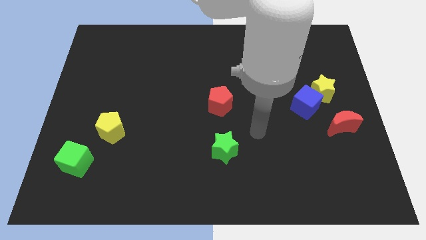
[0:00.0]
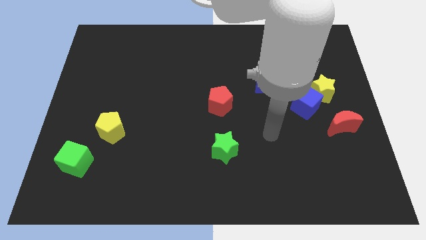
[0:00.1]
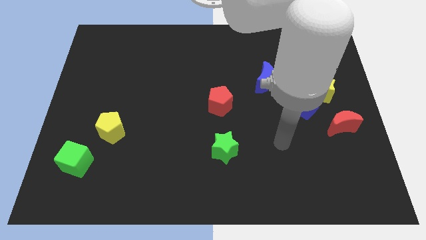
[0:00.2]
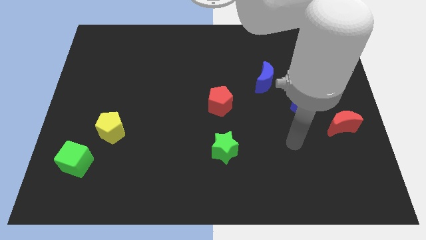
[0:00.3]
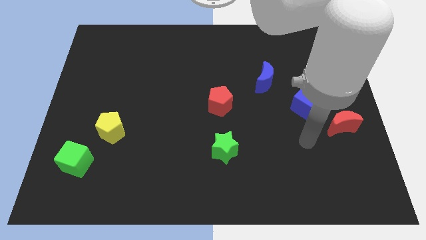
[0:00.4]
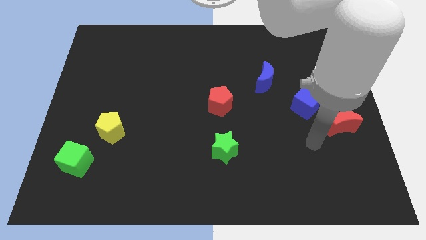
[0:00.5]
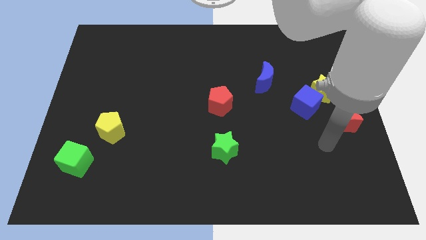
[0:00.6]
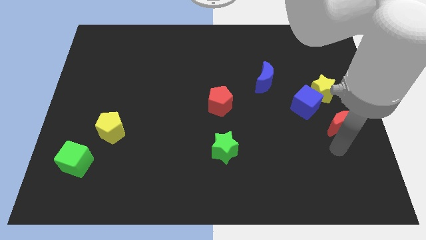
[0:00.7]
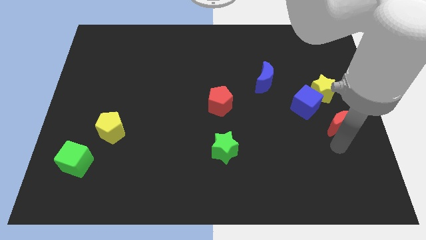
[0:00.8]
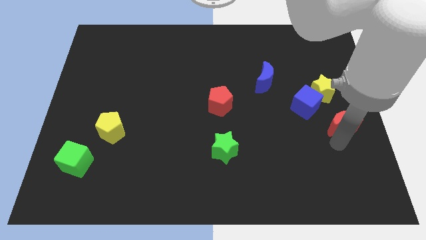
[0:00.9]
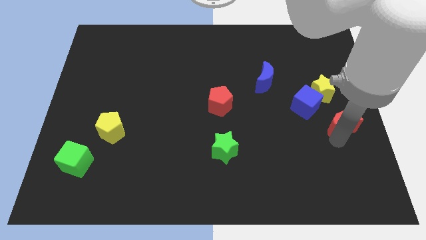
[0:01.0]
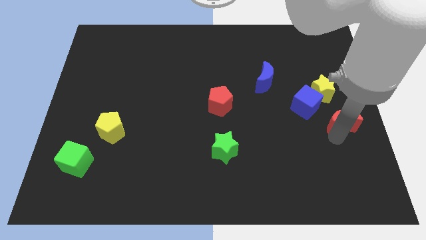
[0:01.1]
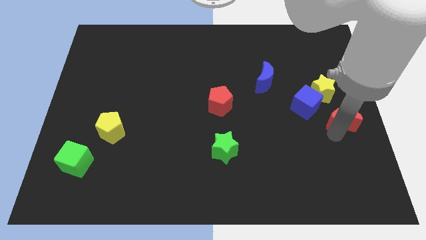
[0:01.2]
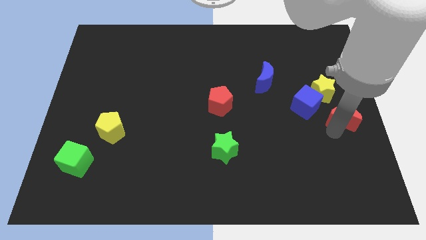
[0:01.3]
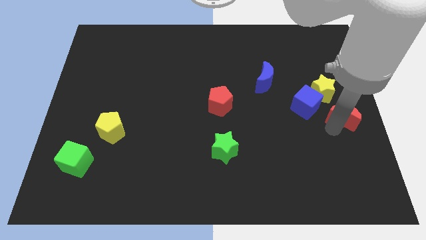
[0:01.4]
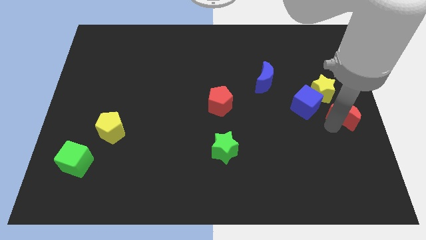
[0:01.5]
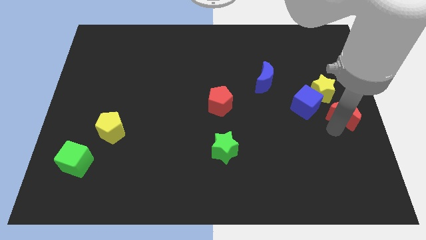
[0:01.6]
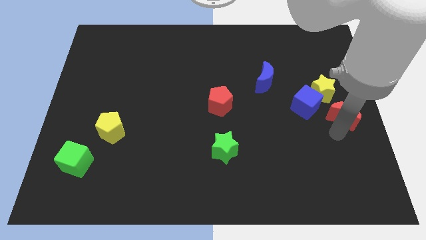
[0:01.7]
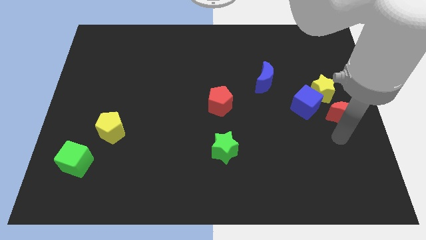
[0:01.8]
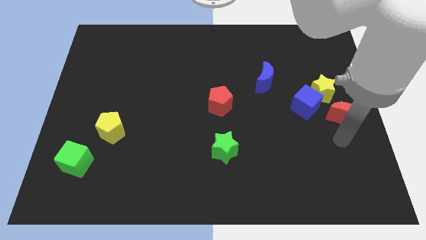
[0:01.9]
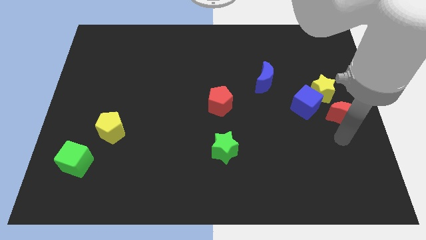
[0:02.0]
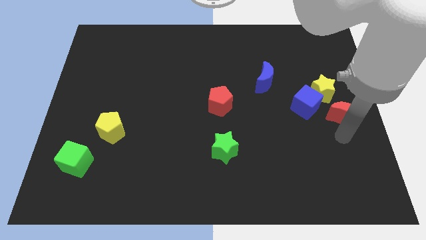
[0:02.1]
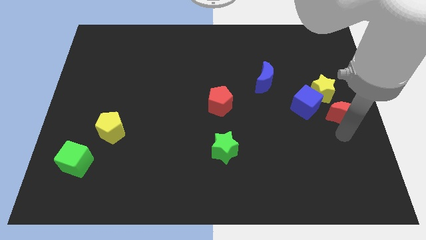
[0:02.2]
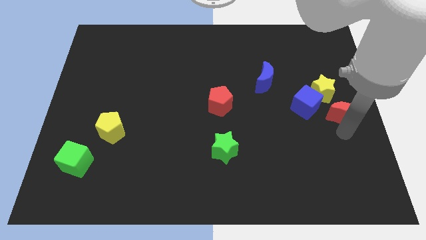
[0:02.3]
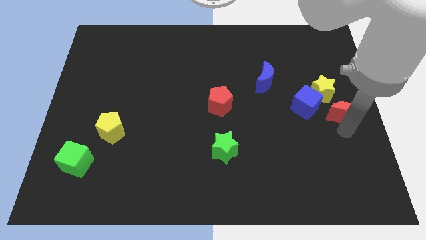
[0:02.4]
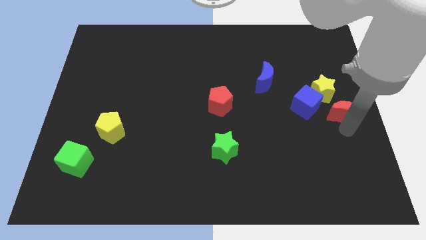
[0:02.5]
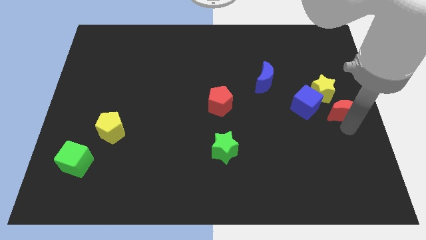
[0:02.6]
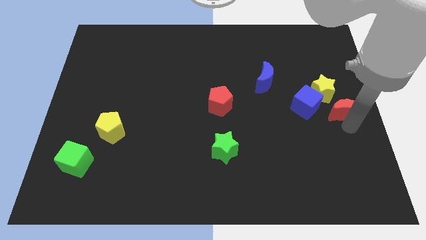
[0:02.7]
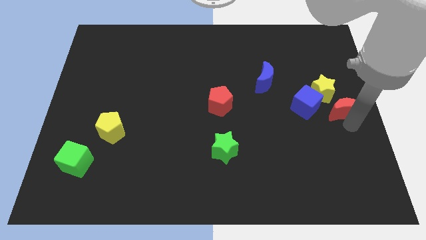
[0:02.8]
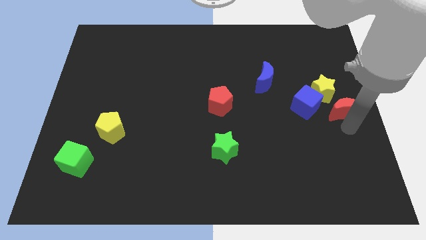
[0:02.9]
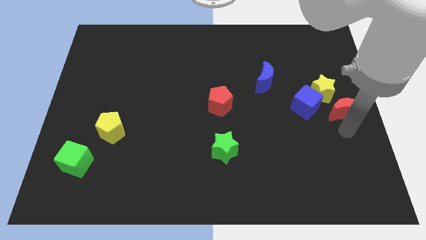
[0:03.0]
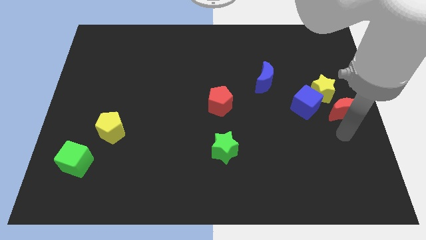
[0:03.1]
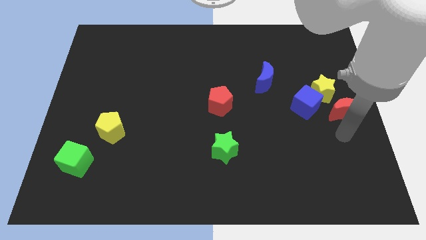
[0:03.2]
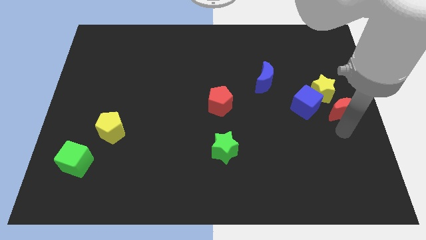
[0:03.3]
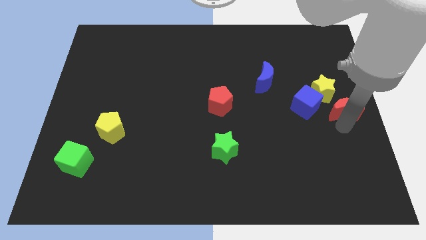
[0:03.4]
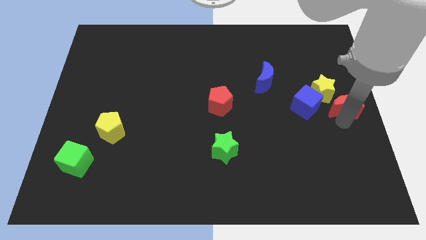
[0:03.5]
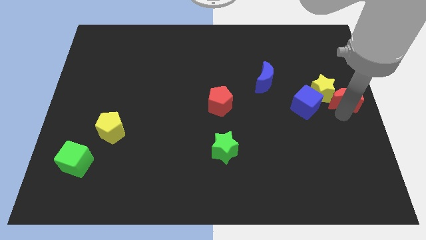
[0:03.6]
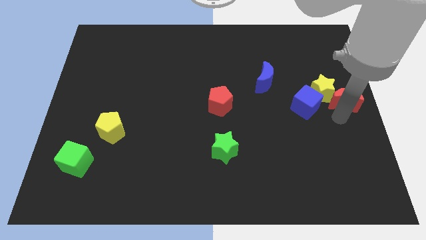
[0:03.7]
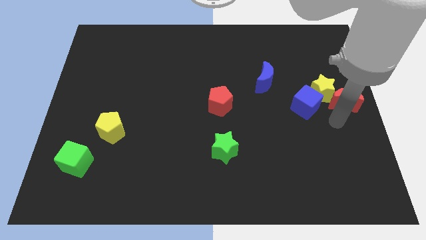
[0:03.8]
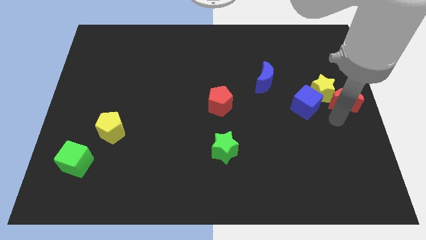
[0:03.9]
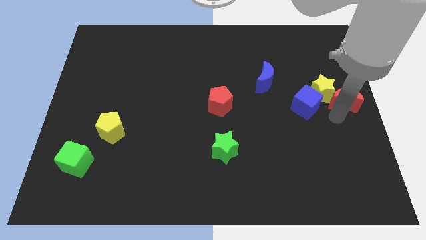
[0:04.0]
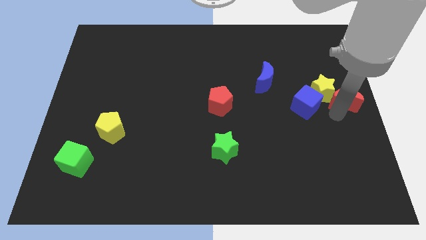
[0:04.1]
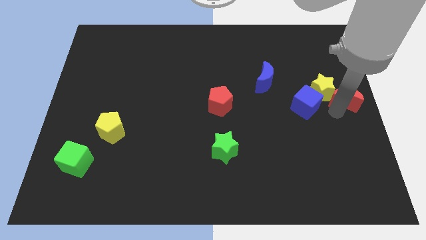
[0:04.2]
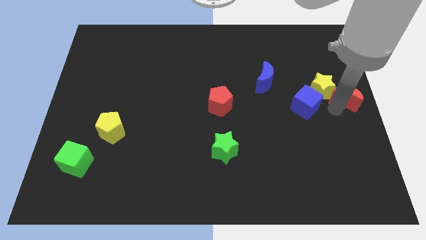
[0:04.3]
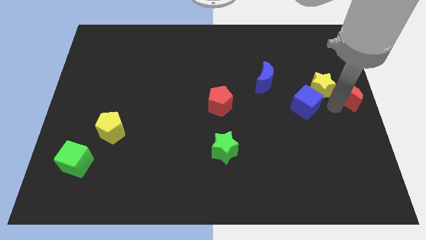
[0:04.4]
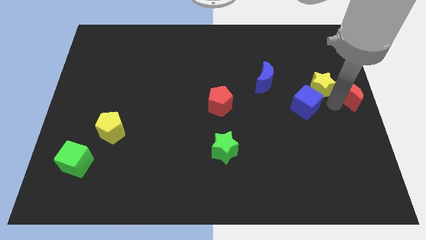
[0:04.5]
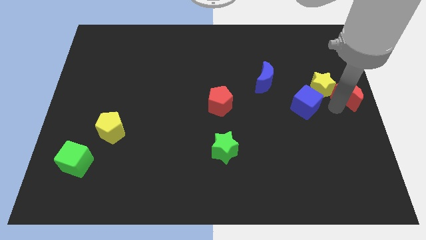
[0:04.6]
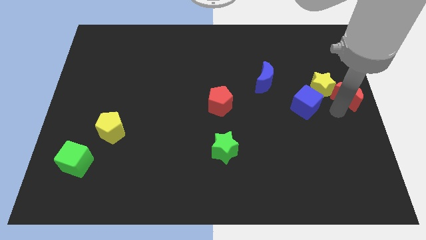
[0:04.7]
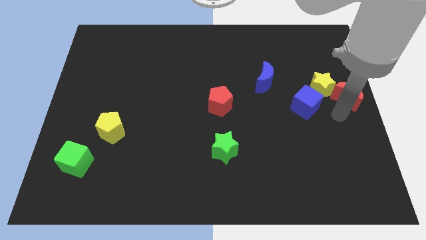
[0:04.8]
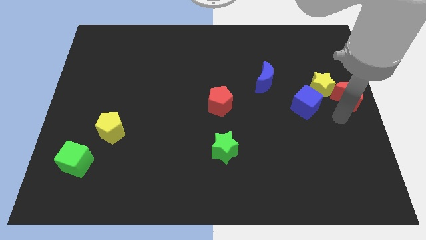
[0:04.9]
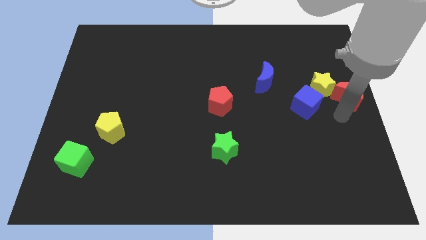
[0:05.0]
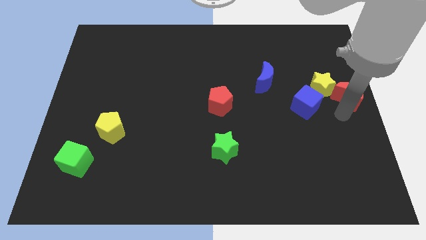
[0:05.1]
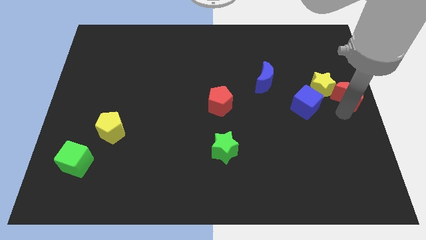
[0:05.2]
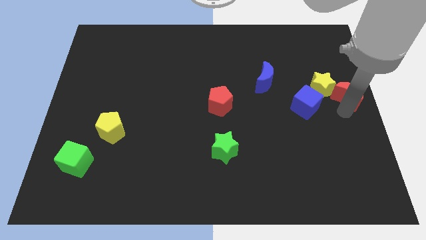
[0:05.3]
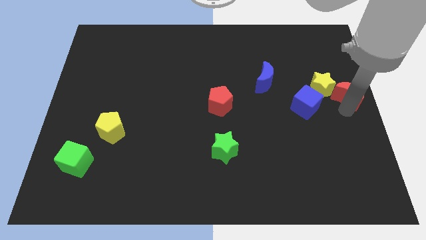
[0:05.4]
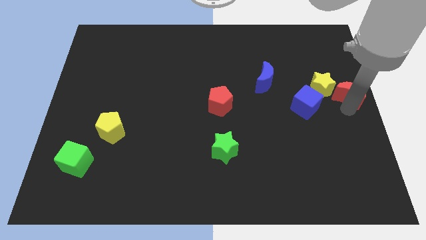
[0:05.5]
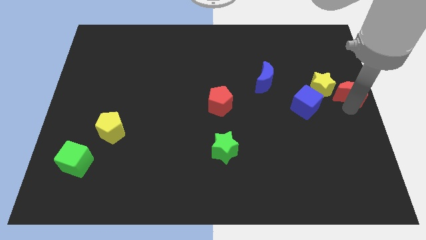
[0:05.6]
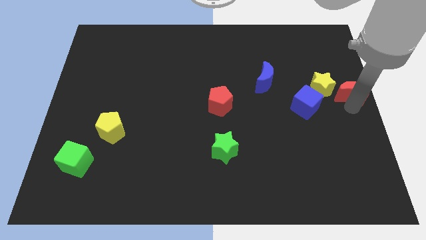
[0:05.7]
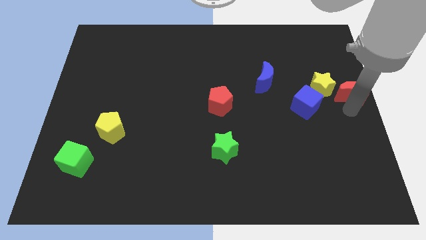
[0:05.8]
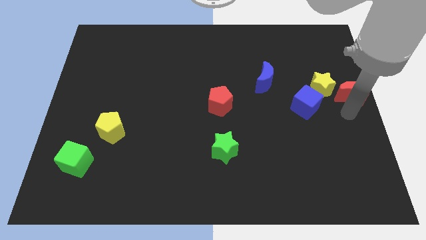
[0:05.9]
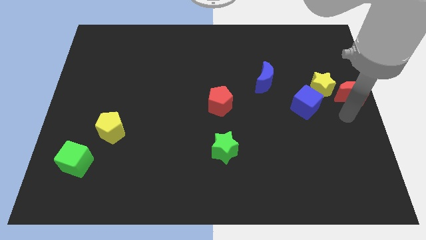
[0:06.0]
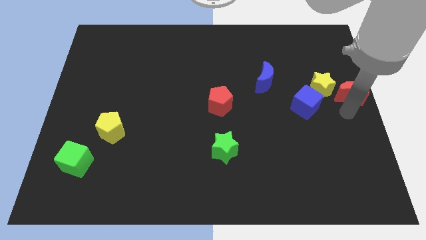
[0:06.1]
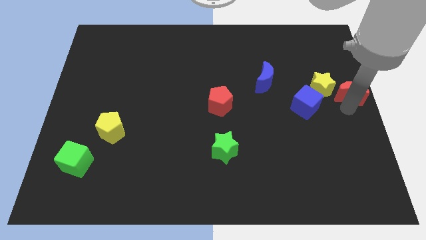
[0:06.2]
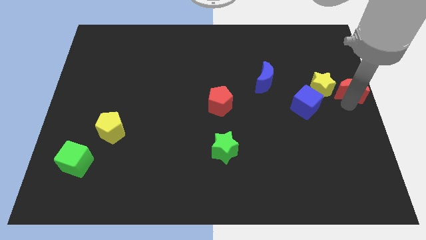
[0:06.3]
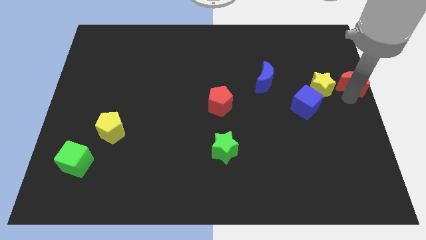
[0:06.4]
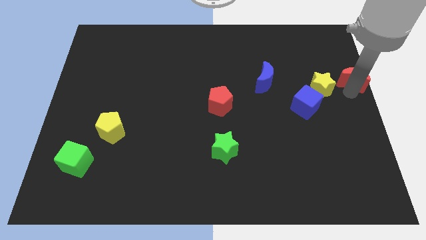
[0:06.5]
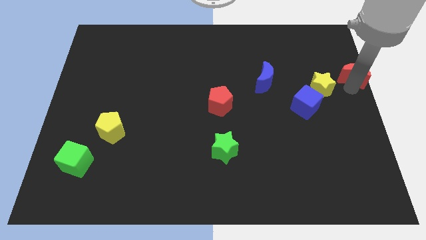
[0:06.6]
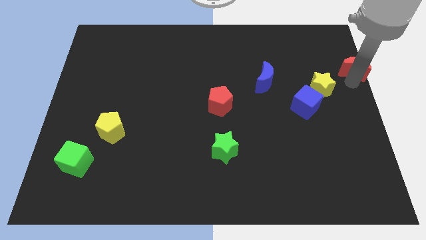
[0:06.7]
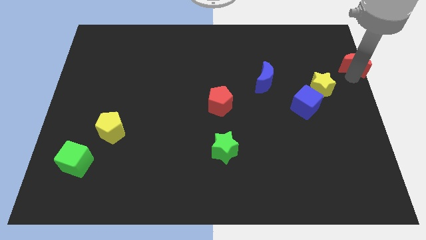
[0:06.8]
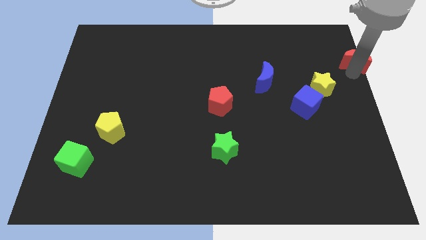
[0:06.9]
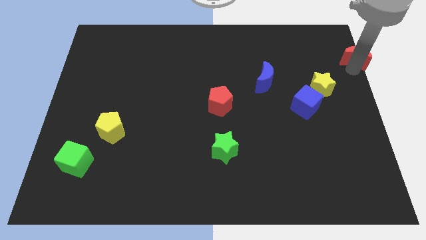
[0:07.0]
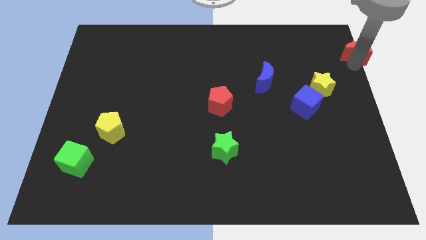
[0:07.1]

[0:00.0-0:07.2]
slide the red moon to the top right corner
